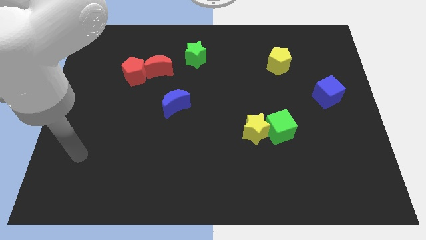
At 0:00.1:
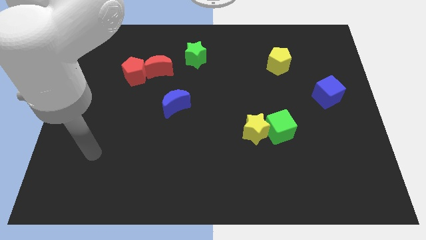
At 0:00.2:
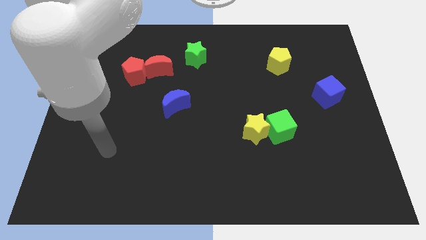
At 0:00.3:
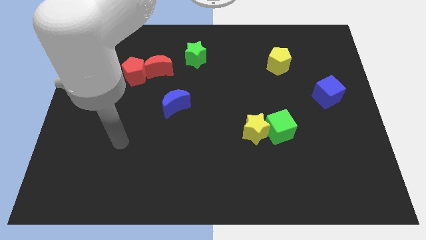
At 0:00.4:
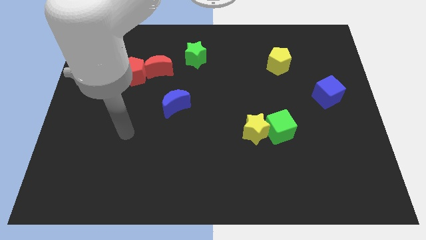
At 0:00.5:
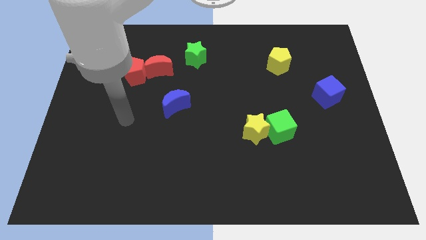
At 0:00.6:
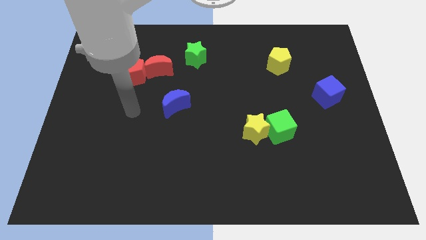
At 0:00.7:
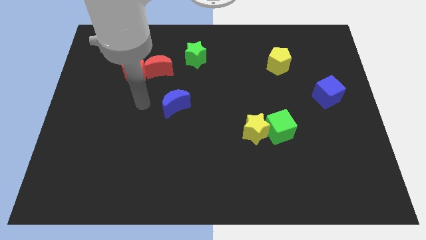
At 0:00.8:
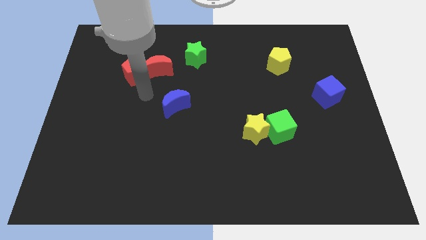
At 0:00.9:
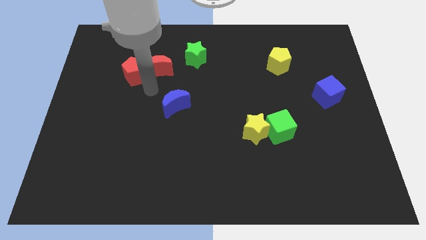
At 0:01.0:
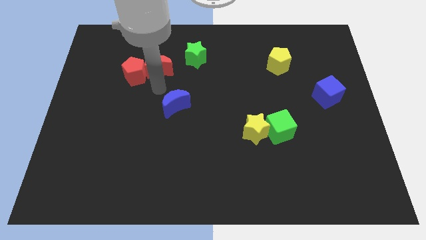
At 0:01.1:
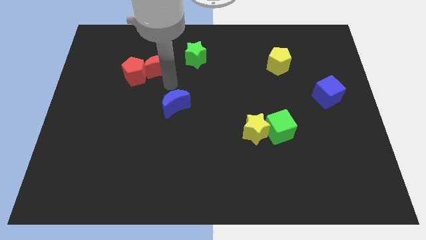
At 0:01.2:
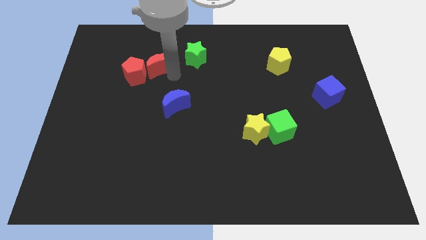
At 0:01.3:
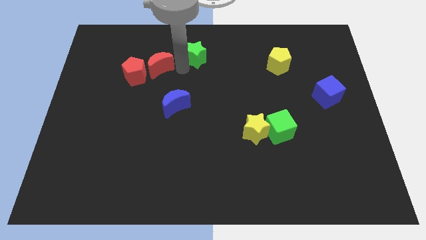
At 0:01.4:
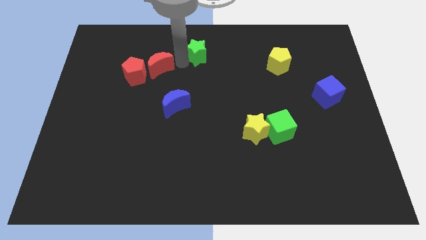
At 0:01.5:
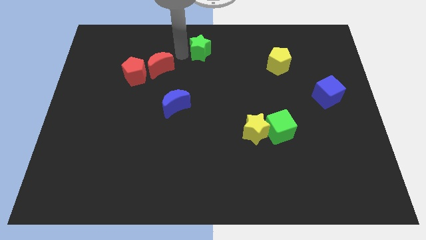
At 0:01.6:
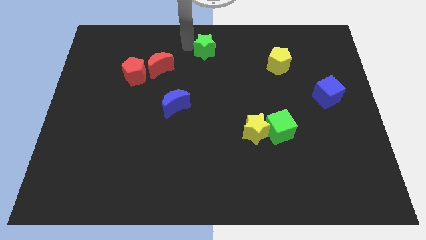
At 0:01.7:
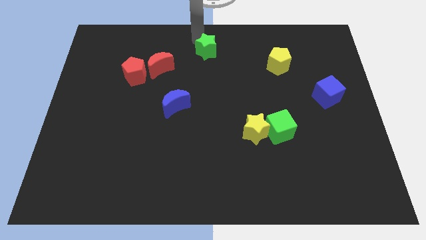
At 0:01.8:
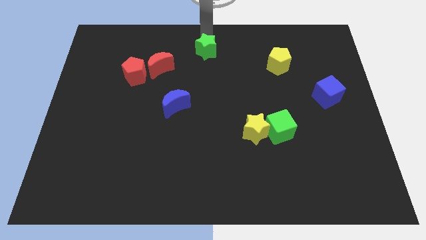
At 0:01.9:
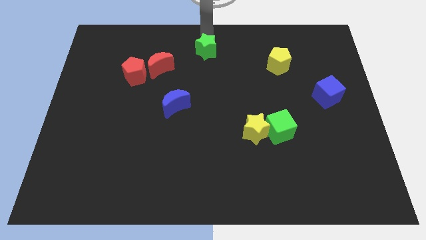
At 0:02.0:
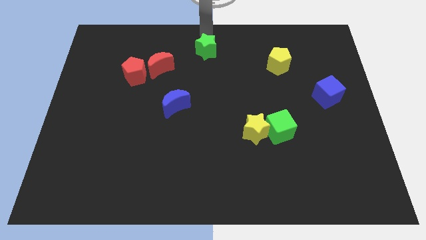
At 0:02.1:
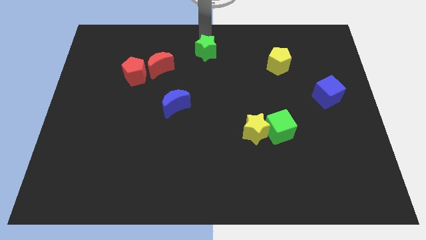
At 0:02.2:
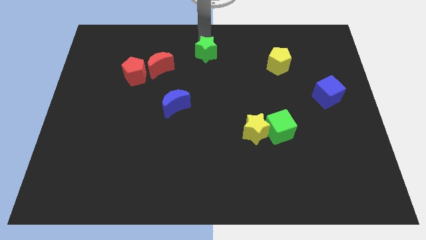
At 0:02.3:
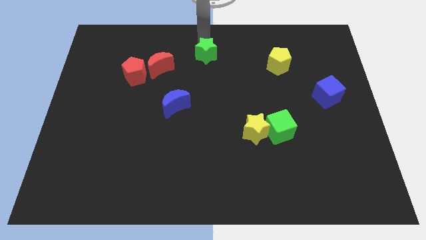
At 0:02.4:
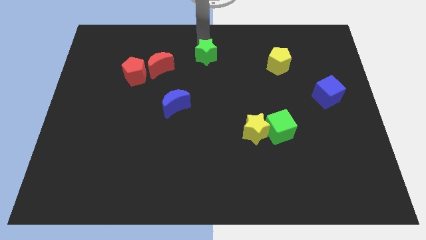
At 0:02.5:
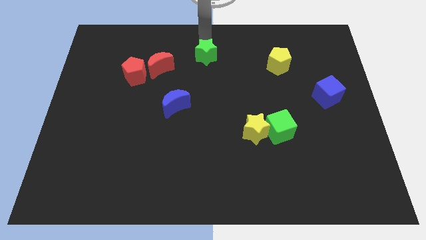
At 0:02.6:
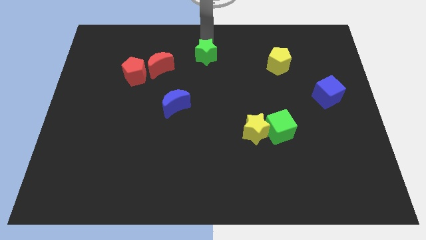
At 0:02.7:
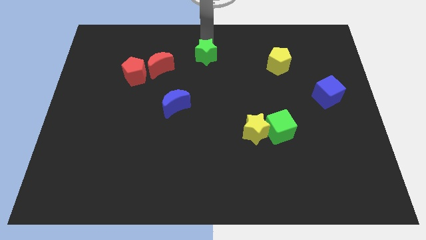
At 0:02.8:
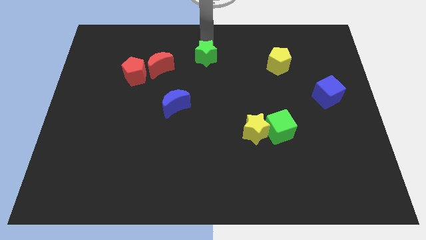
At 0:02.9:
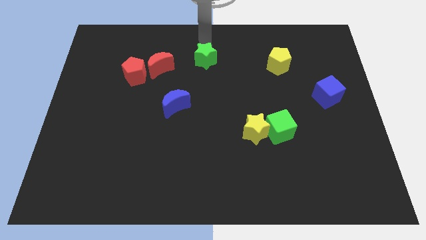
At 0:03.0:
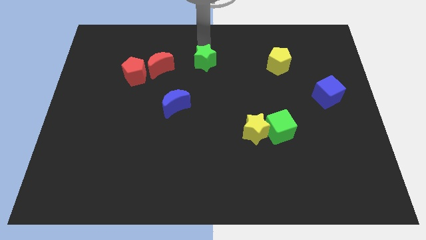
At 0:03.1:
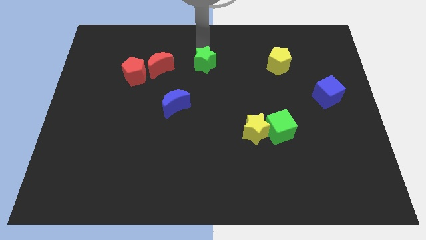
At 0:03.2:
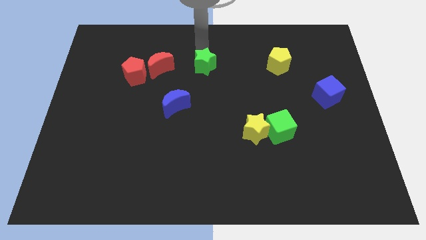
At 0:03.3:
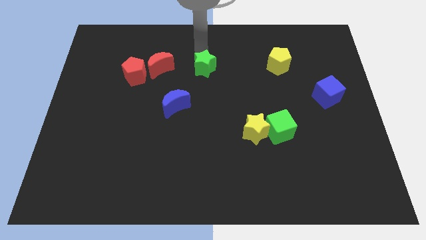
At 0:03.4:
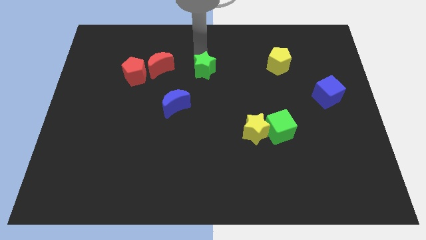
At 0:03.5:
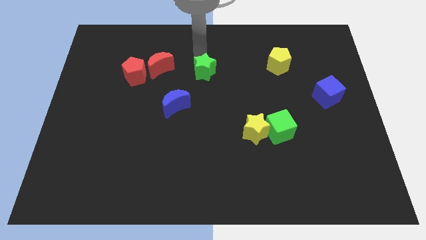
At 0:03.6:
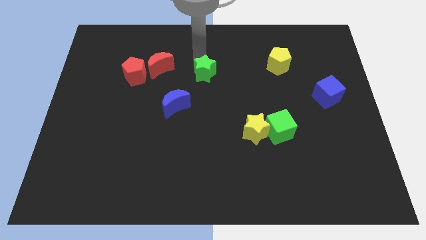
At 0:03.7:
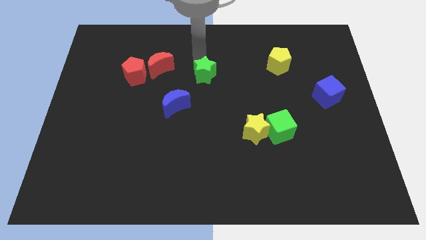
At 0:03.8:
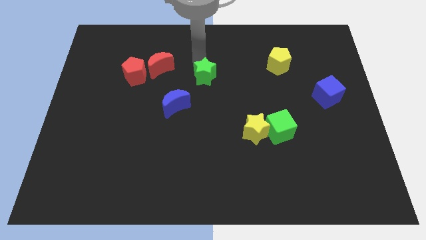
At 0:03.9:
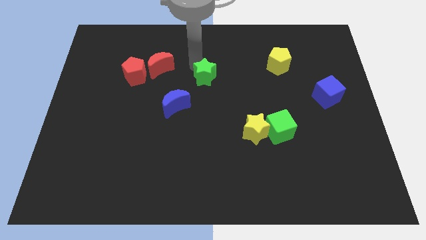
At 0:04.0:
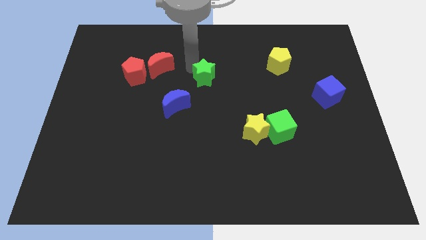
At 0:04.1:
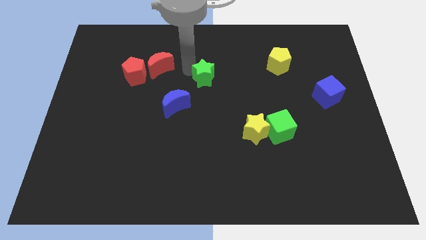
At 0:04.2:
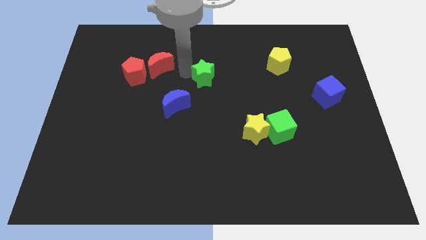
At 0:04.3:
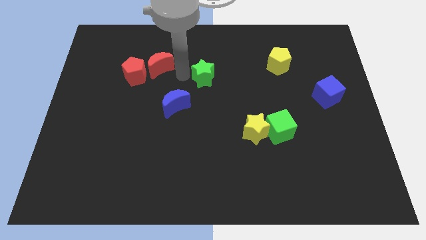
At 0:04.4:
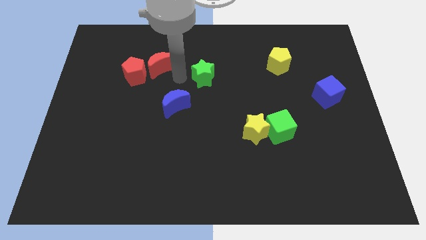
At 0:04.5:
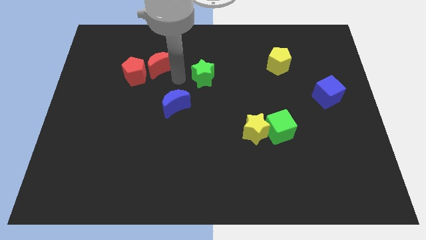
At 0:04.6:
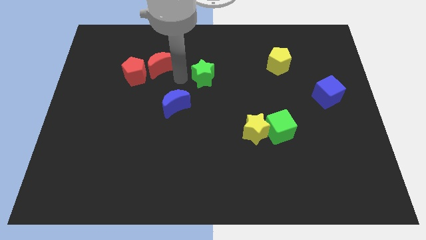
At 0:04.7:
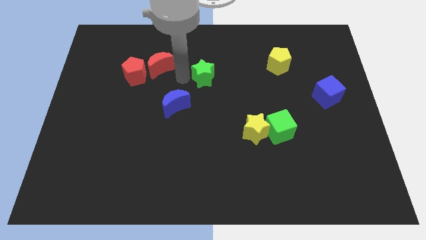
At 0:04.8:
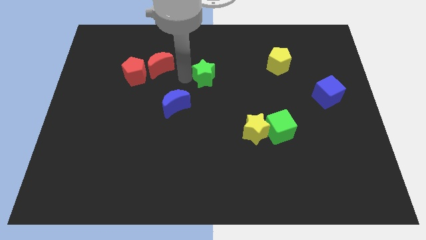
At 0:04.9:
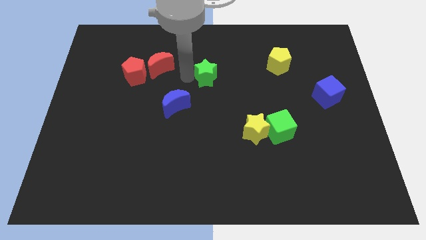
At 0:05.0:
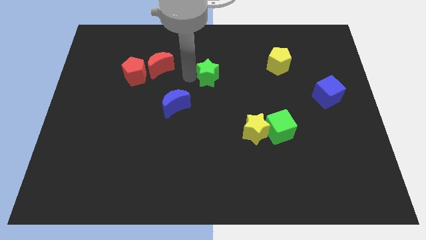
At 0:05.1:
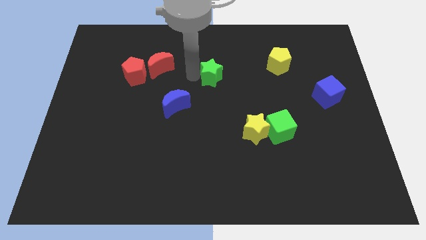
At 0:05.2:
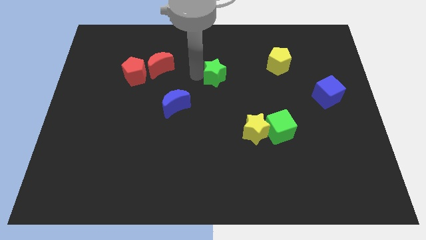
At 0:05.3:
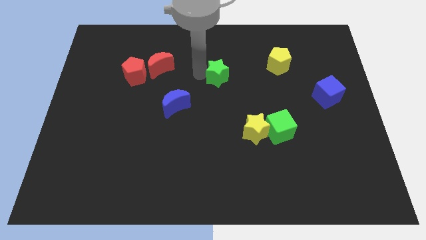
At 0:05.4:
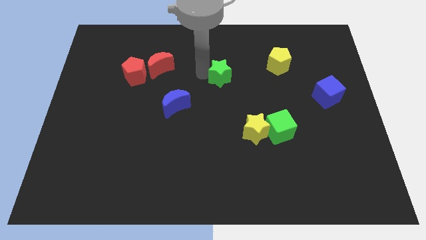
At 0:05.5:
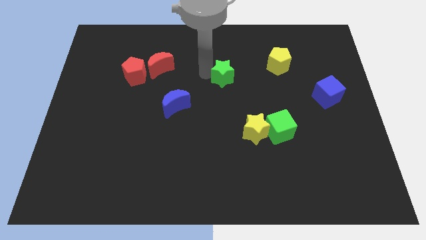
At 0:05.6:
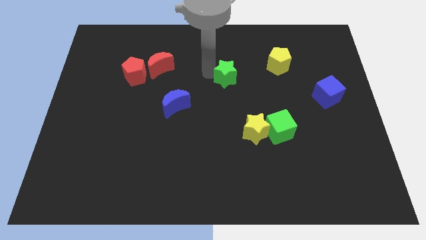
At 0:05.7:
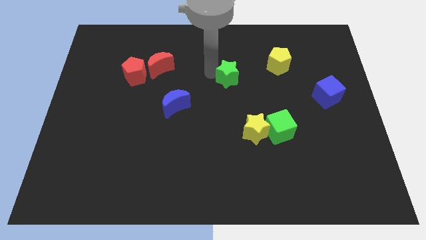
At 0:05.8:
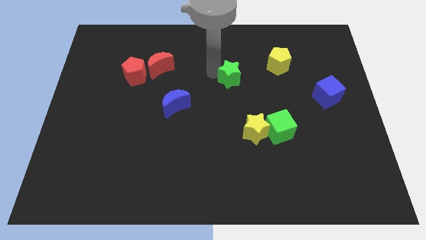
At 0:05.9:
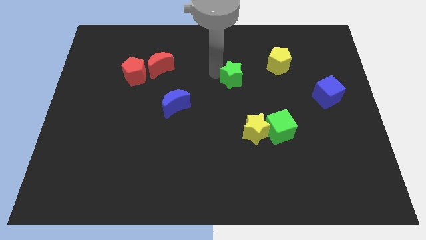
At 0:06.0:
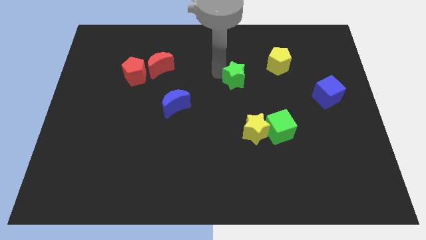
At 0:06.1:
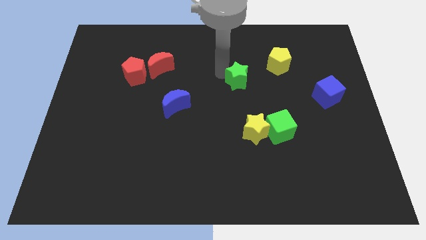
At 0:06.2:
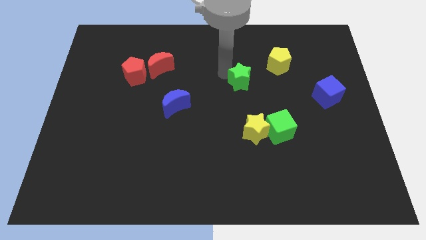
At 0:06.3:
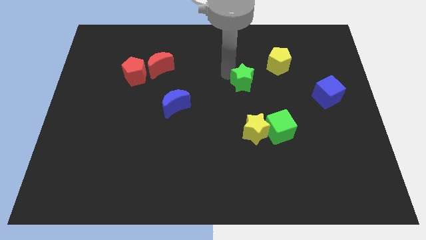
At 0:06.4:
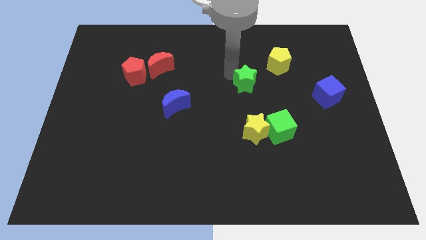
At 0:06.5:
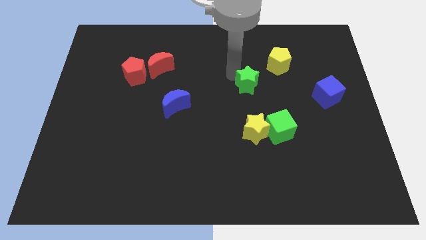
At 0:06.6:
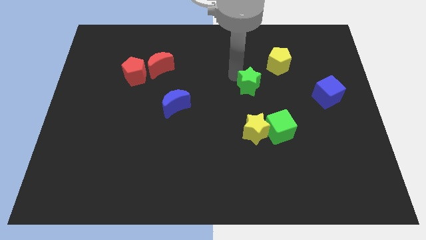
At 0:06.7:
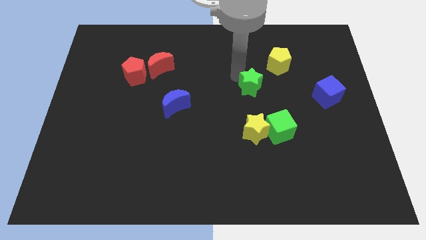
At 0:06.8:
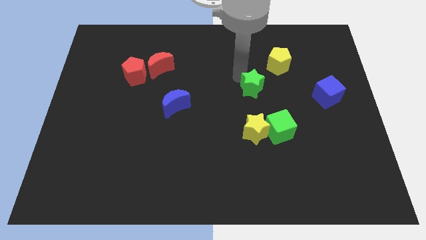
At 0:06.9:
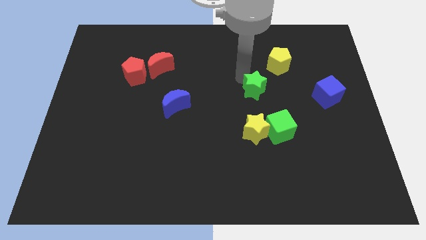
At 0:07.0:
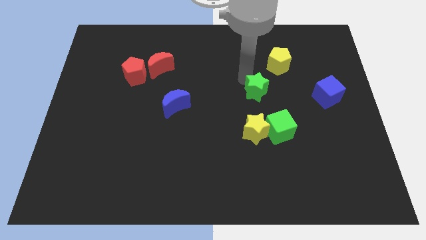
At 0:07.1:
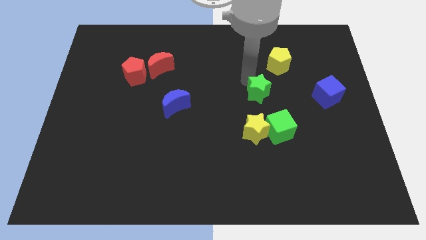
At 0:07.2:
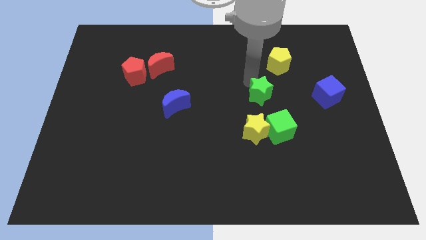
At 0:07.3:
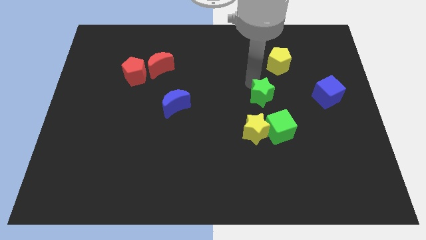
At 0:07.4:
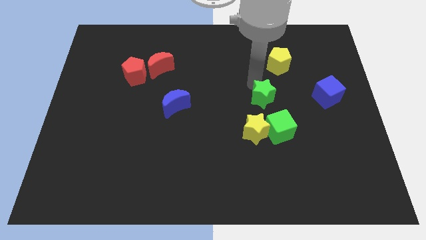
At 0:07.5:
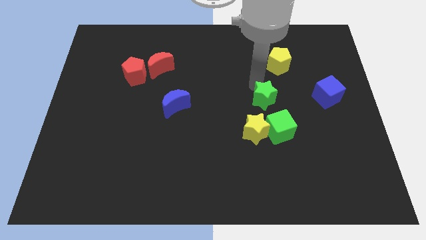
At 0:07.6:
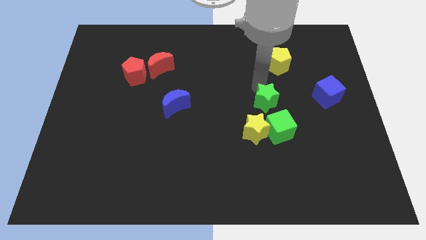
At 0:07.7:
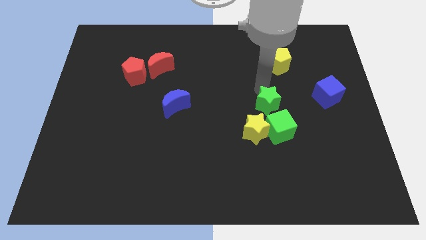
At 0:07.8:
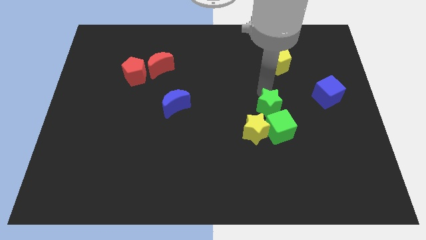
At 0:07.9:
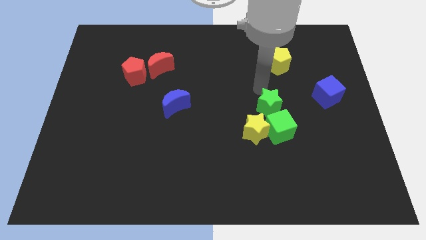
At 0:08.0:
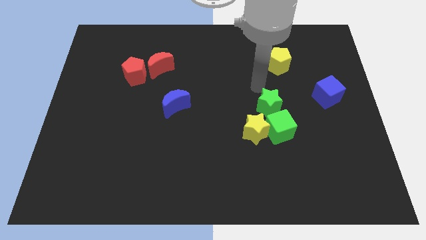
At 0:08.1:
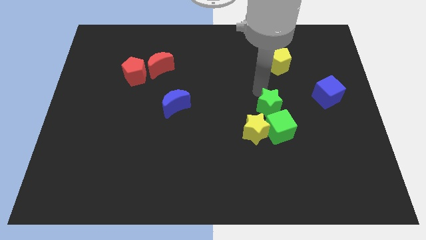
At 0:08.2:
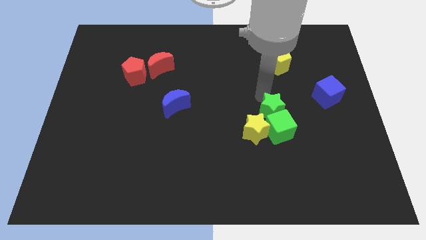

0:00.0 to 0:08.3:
slide the green star close to the green cube
